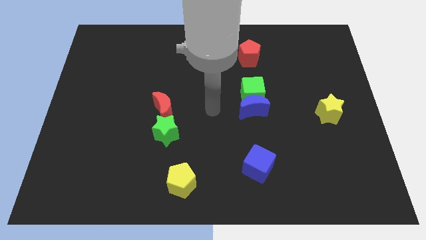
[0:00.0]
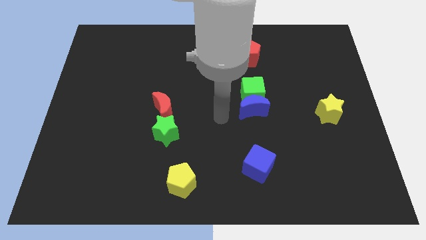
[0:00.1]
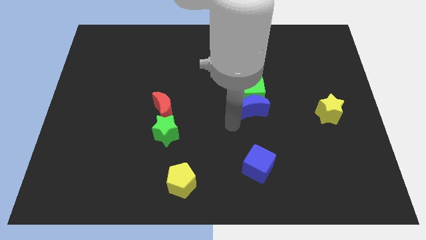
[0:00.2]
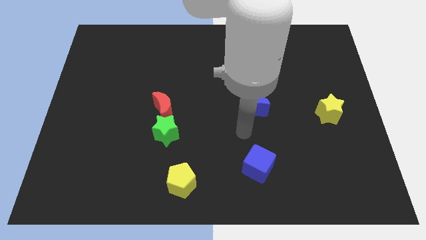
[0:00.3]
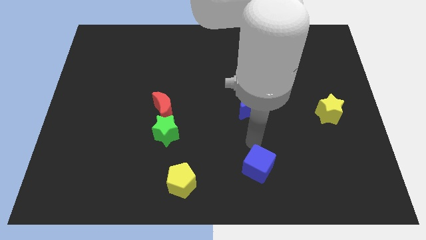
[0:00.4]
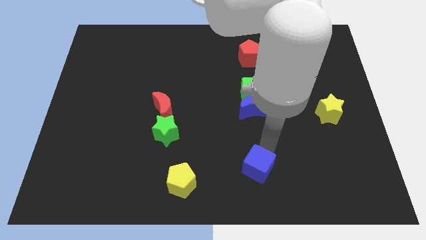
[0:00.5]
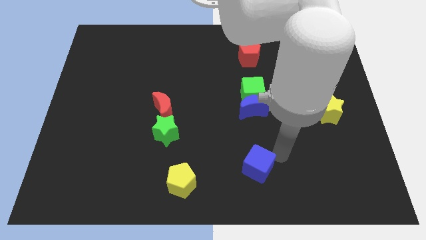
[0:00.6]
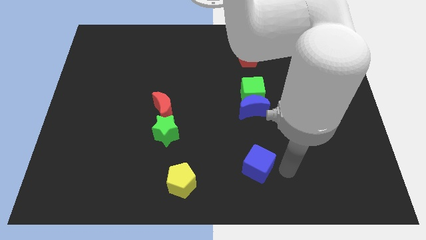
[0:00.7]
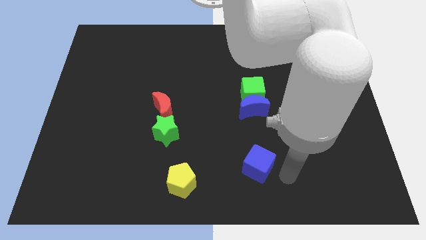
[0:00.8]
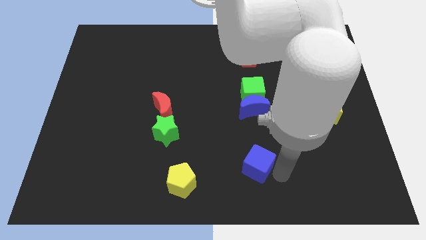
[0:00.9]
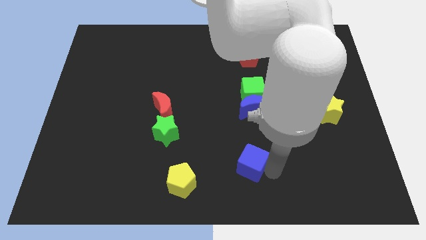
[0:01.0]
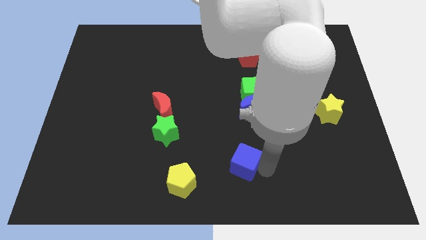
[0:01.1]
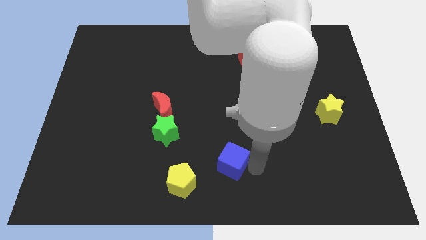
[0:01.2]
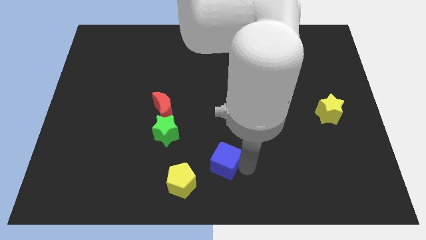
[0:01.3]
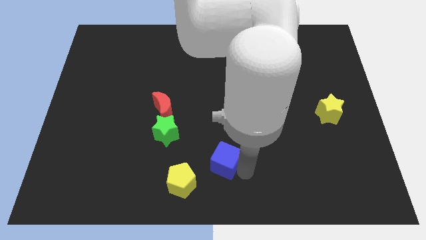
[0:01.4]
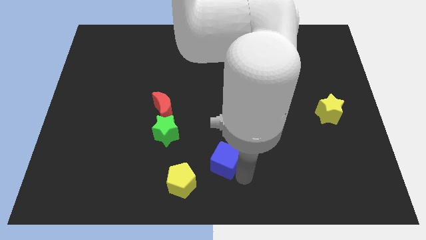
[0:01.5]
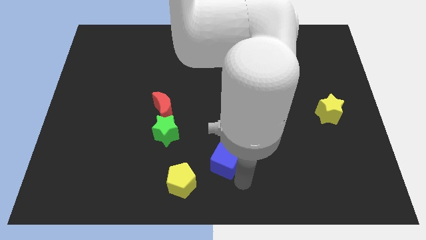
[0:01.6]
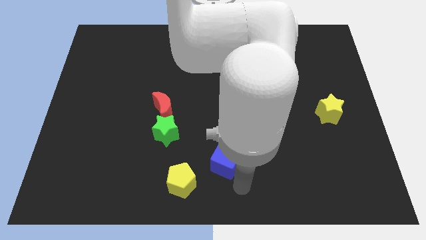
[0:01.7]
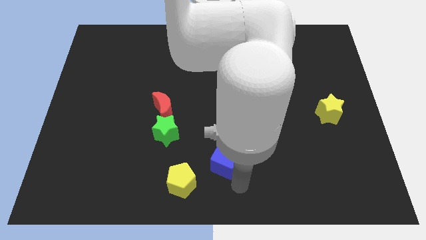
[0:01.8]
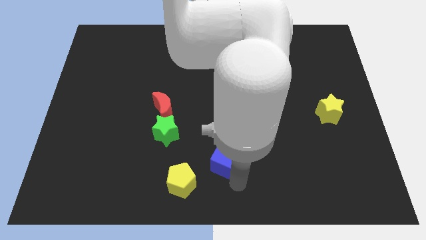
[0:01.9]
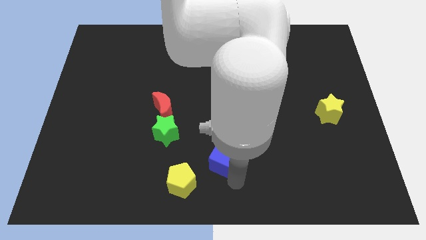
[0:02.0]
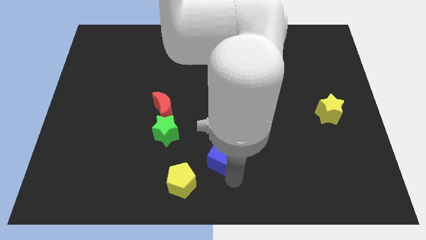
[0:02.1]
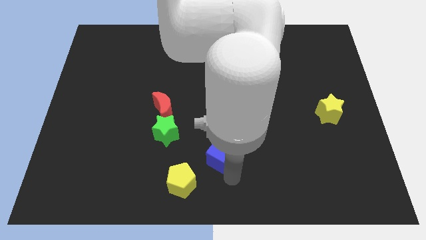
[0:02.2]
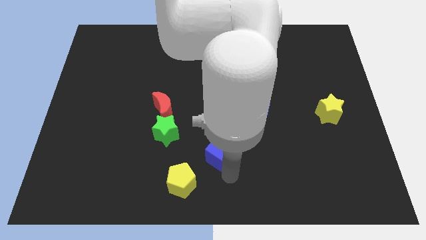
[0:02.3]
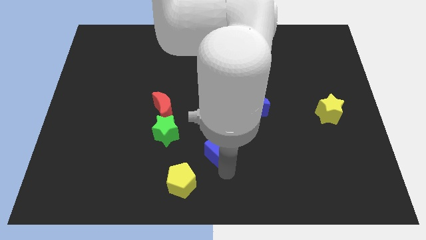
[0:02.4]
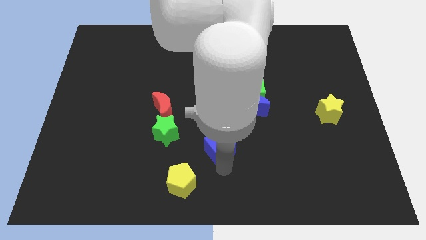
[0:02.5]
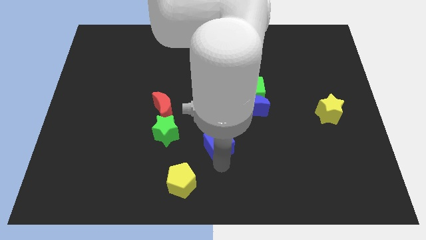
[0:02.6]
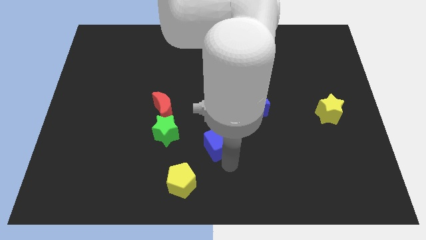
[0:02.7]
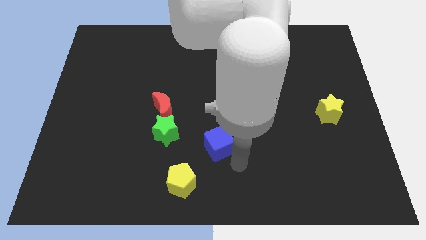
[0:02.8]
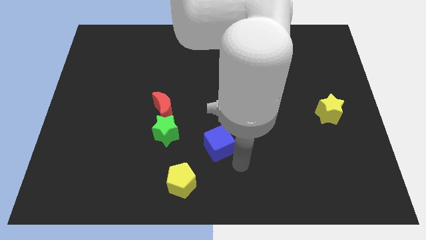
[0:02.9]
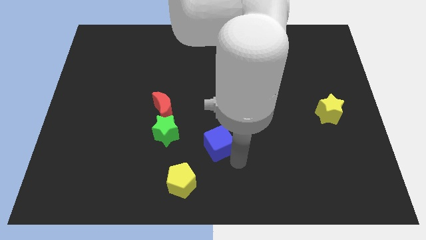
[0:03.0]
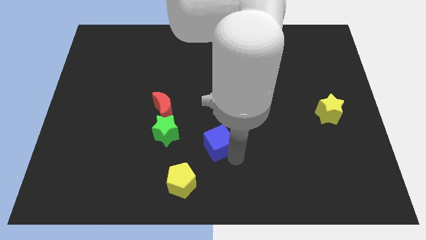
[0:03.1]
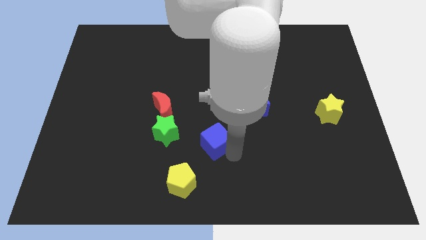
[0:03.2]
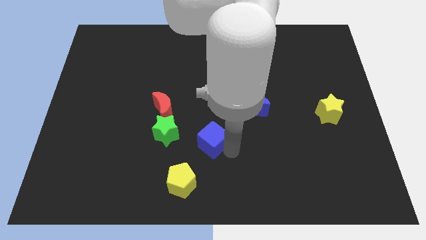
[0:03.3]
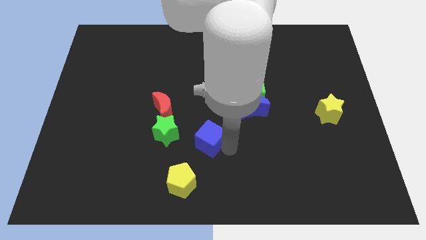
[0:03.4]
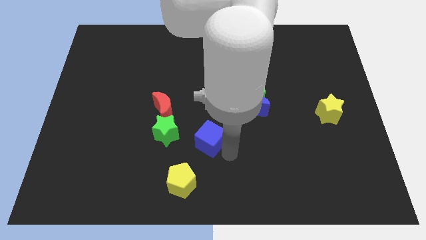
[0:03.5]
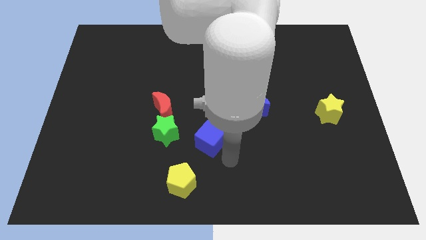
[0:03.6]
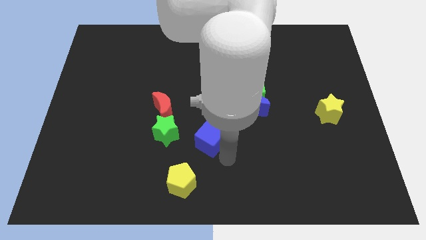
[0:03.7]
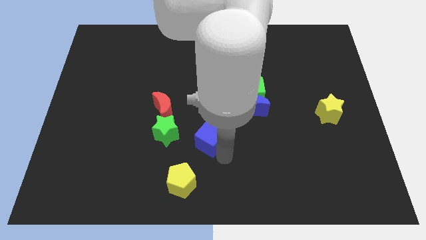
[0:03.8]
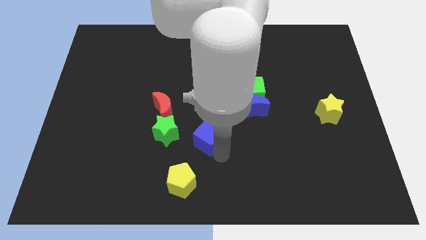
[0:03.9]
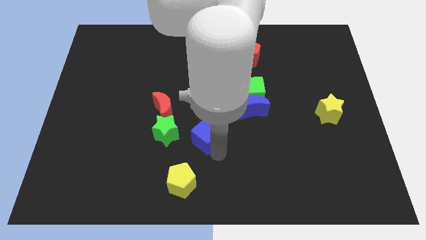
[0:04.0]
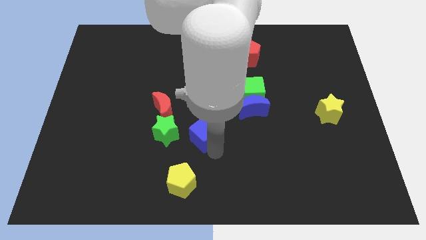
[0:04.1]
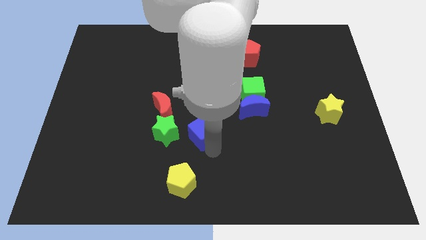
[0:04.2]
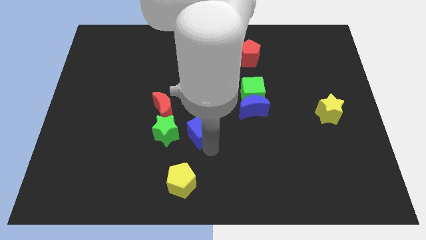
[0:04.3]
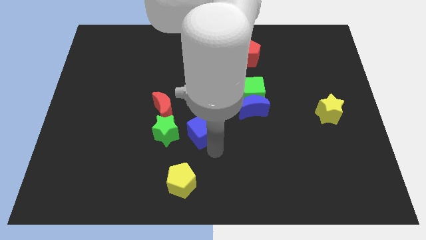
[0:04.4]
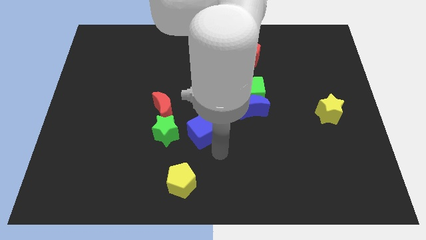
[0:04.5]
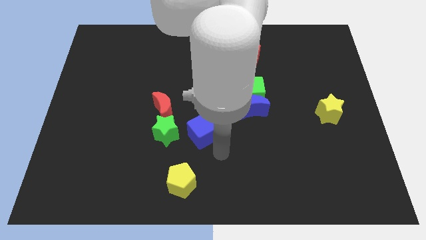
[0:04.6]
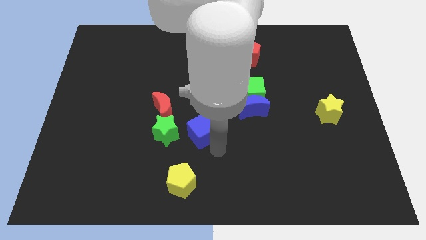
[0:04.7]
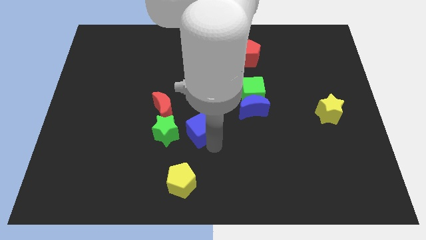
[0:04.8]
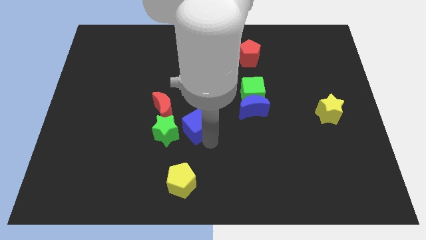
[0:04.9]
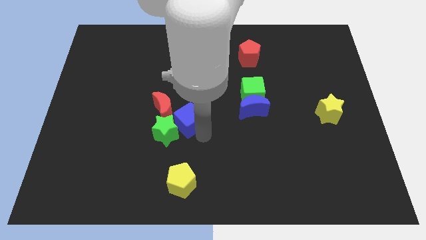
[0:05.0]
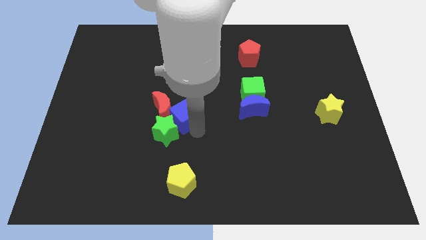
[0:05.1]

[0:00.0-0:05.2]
slide the blue cube upwards and left

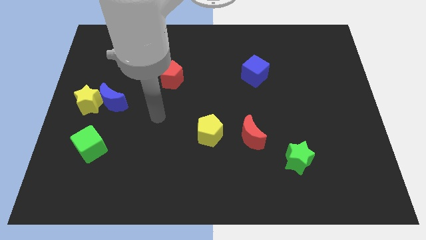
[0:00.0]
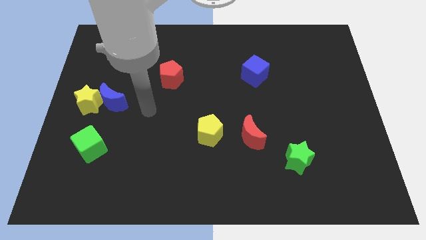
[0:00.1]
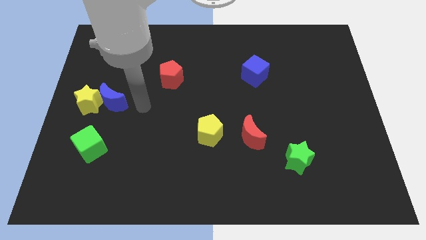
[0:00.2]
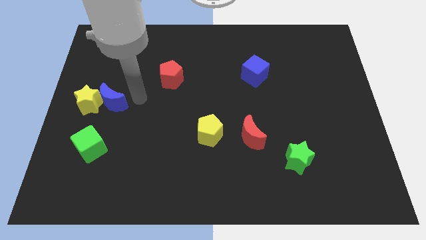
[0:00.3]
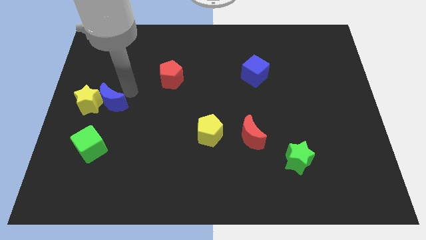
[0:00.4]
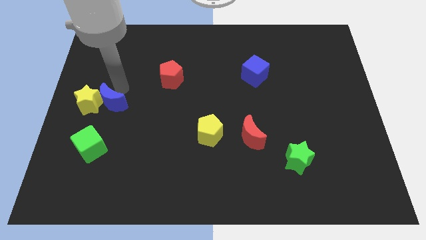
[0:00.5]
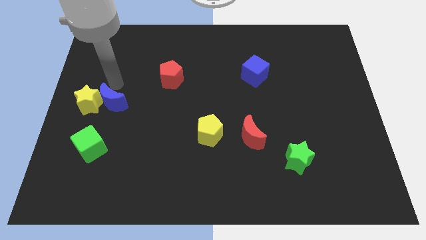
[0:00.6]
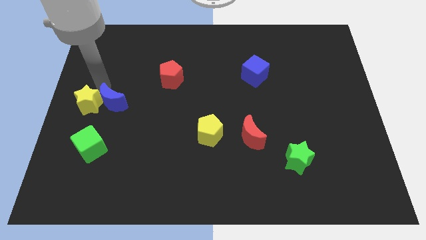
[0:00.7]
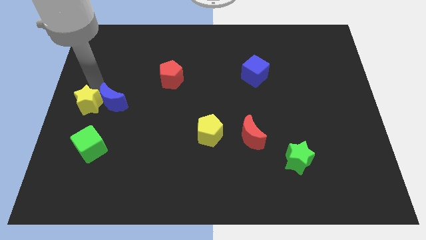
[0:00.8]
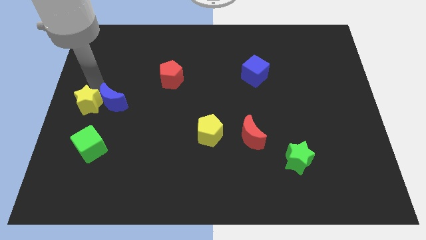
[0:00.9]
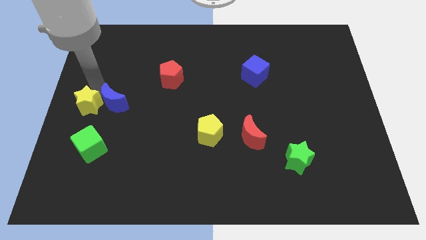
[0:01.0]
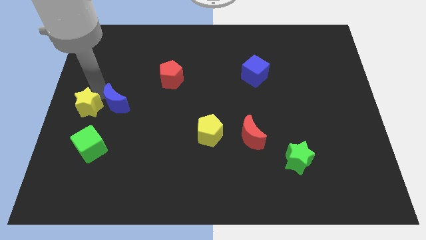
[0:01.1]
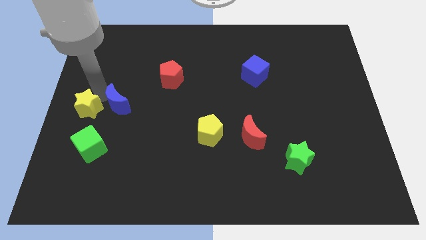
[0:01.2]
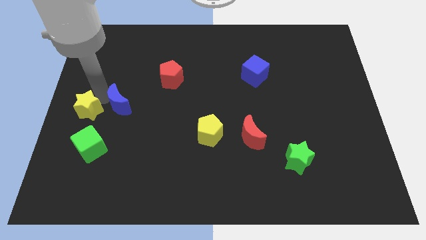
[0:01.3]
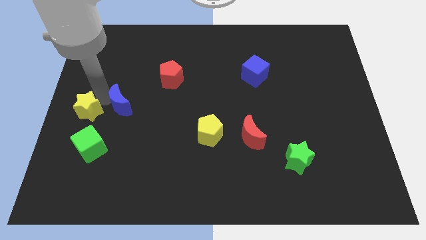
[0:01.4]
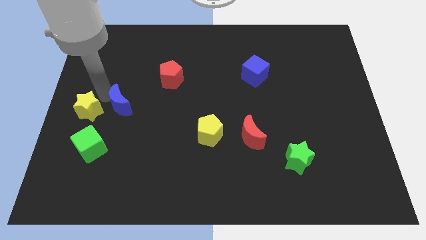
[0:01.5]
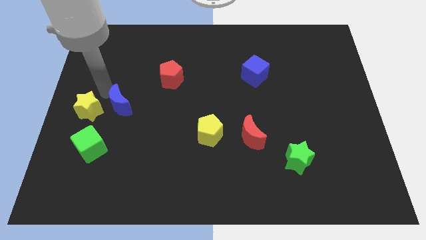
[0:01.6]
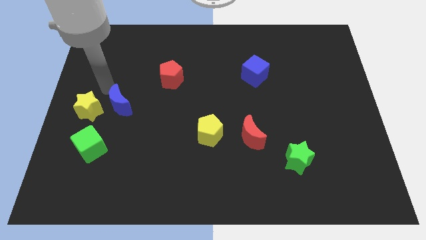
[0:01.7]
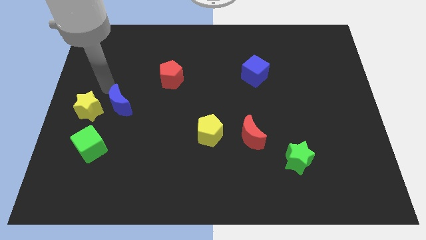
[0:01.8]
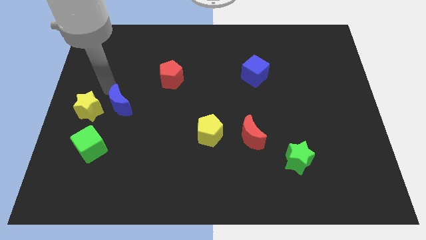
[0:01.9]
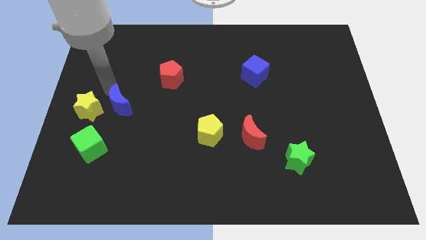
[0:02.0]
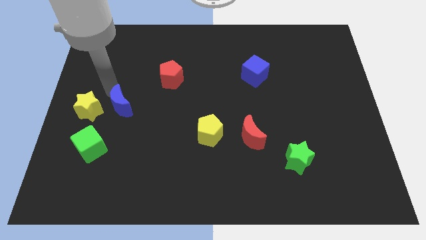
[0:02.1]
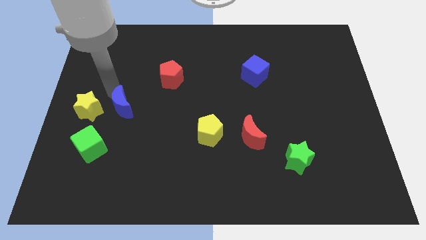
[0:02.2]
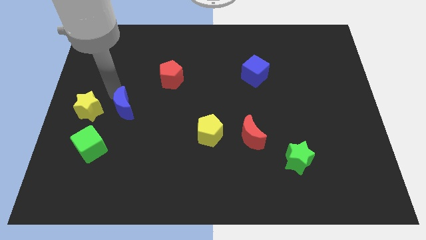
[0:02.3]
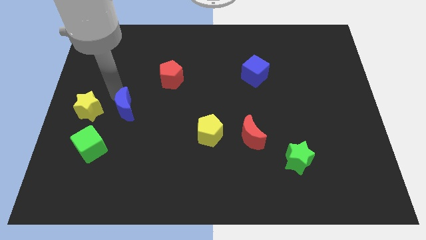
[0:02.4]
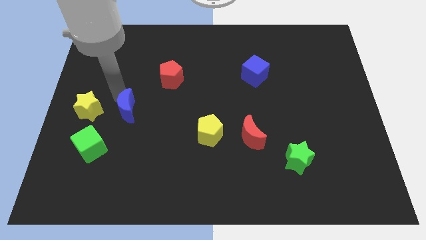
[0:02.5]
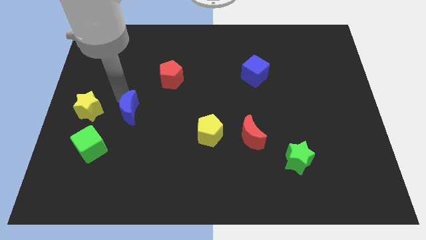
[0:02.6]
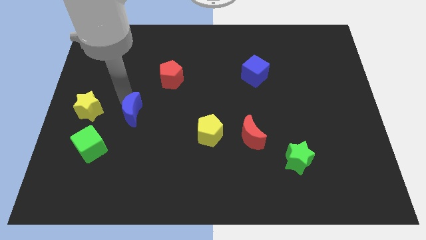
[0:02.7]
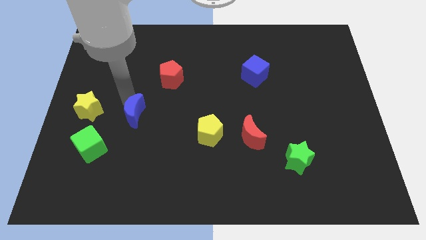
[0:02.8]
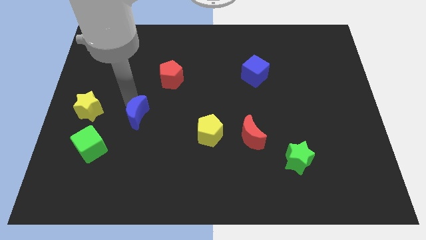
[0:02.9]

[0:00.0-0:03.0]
slightly slide the blue moon down and then to the right
